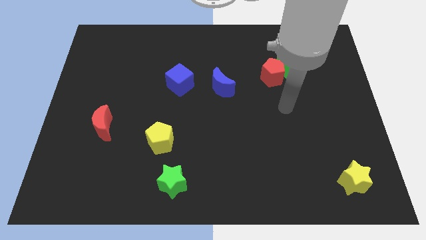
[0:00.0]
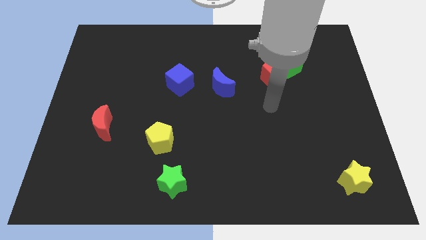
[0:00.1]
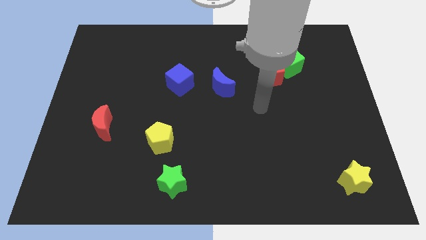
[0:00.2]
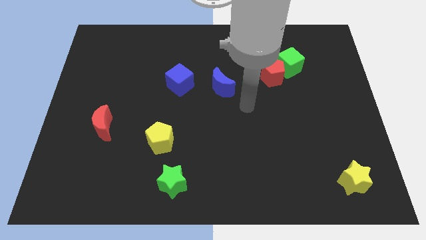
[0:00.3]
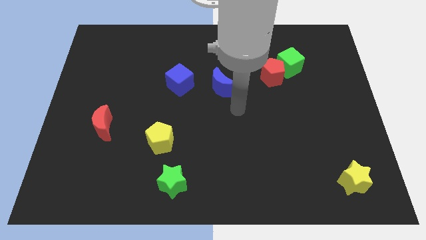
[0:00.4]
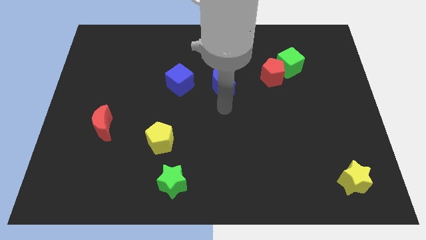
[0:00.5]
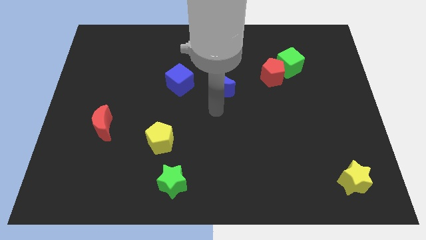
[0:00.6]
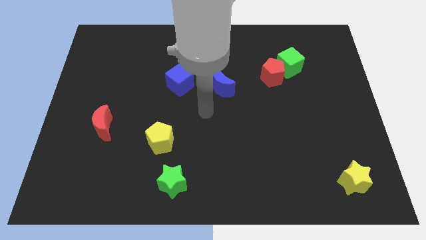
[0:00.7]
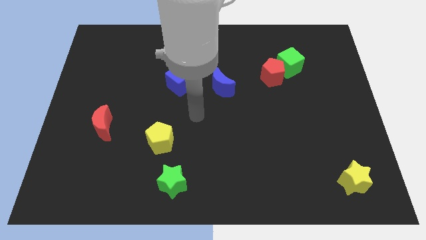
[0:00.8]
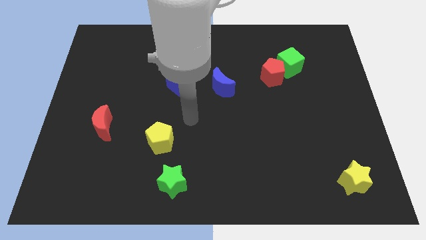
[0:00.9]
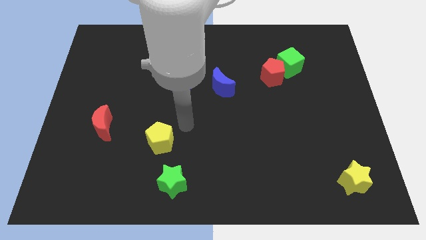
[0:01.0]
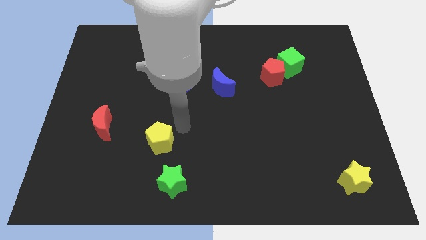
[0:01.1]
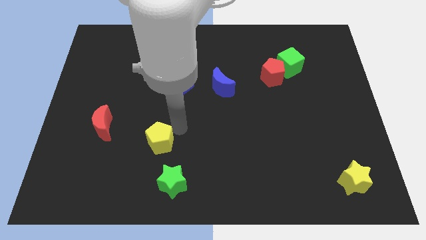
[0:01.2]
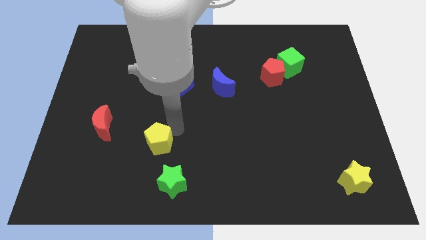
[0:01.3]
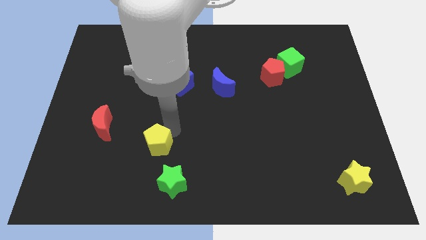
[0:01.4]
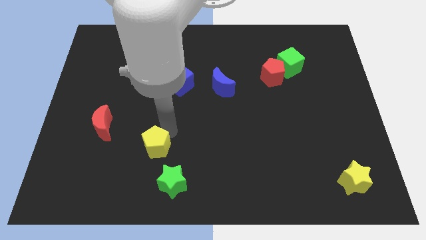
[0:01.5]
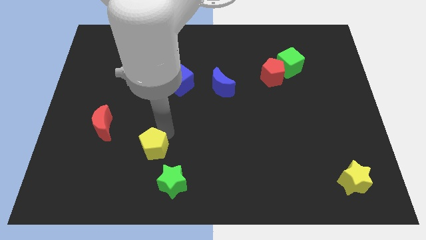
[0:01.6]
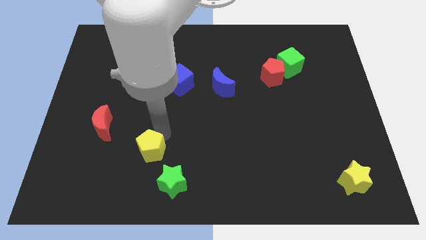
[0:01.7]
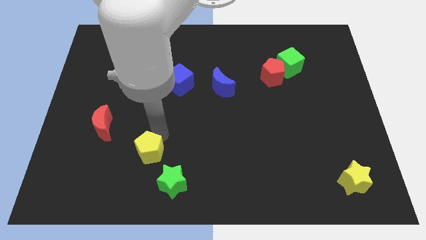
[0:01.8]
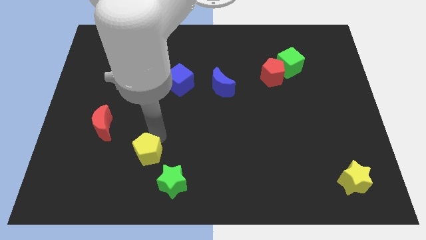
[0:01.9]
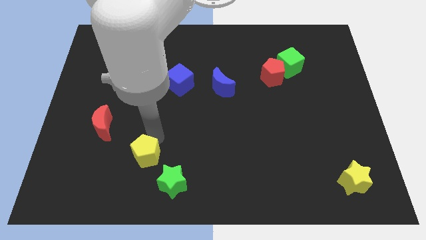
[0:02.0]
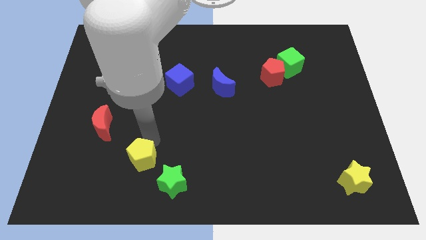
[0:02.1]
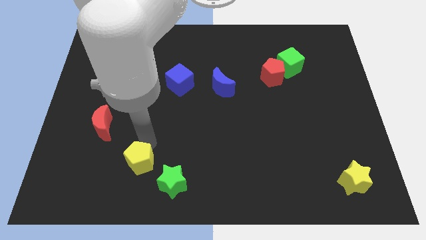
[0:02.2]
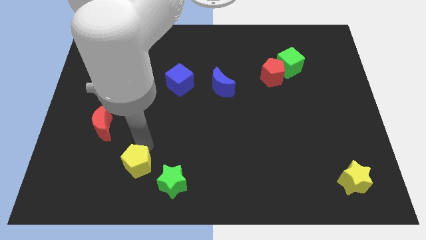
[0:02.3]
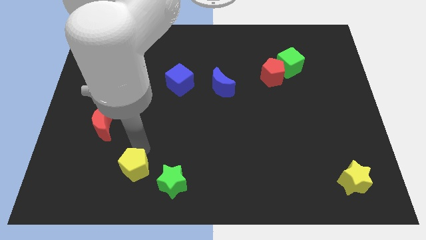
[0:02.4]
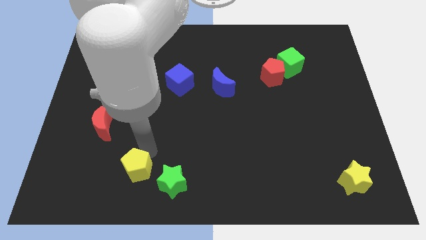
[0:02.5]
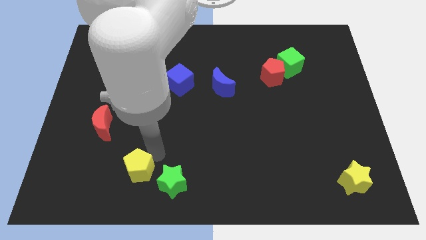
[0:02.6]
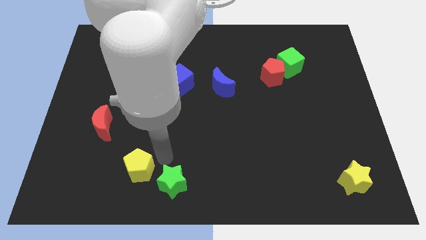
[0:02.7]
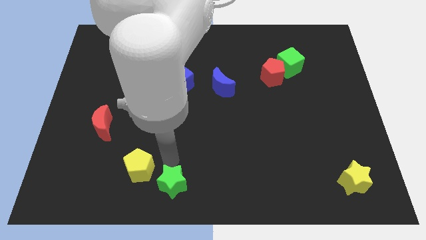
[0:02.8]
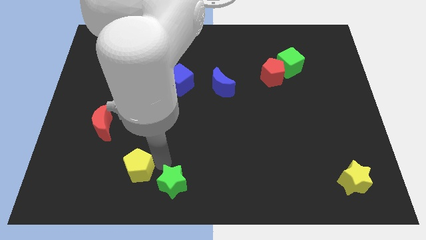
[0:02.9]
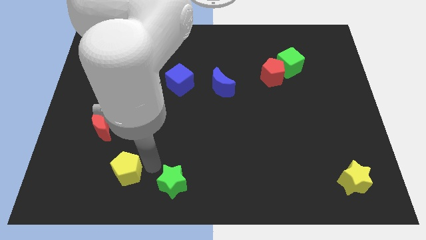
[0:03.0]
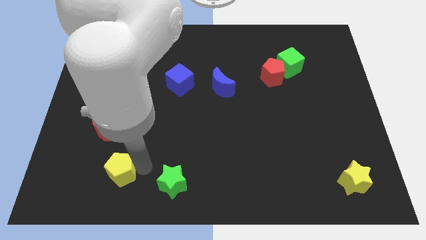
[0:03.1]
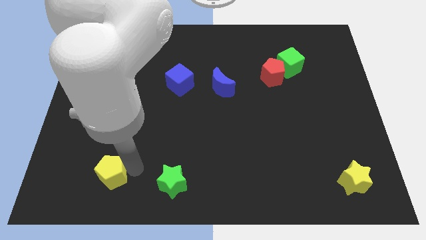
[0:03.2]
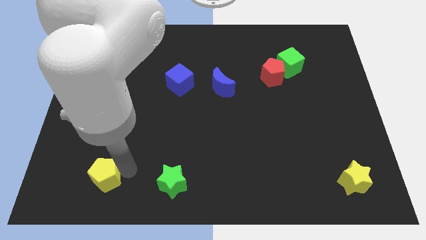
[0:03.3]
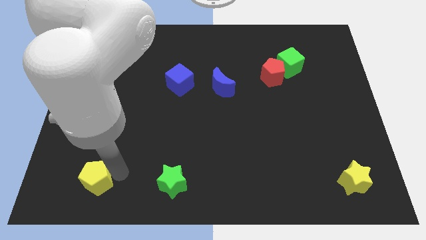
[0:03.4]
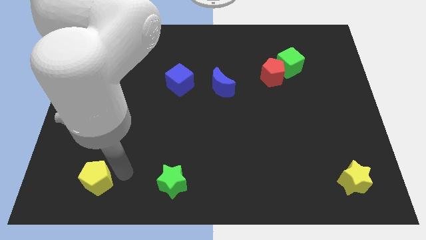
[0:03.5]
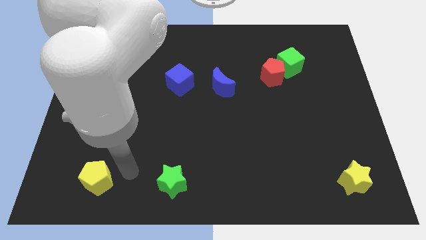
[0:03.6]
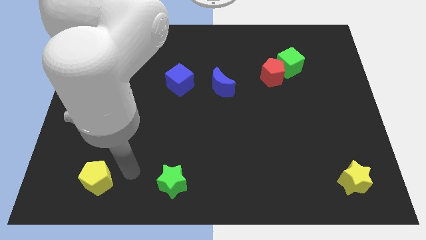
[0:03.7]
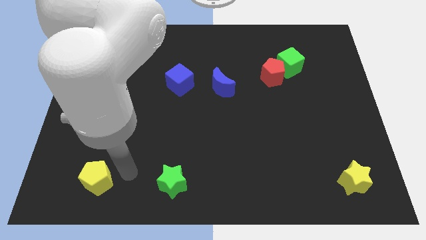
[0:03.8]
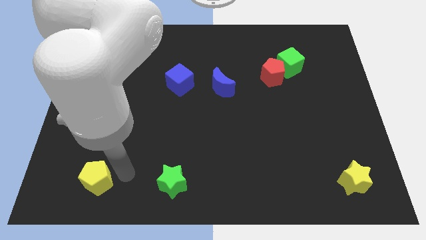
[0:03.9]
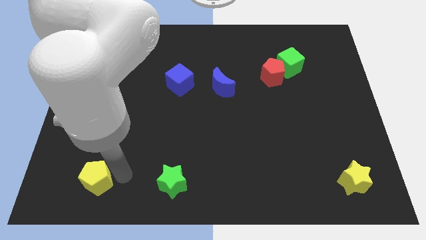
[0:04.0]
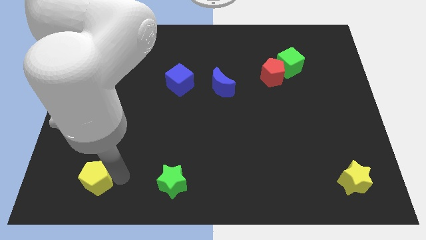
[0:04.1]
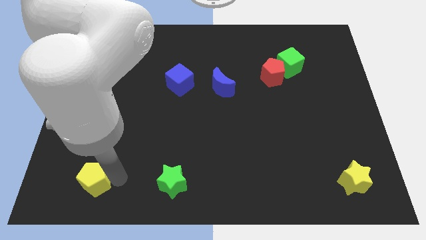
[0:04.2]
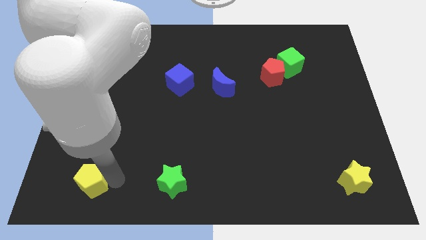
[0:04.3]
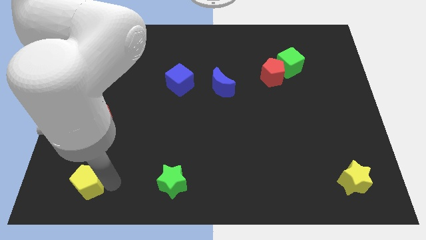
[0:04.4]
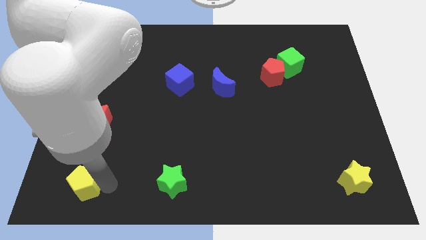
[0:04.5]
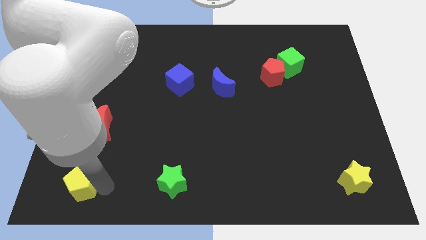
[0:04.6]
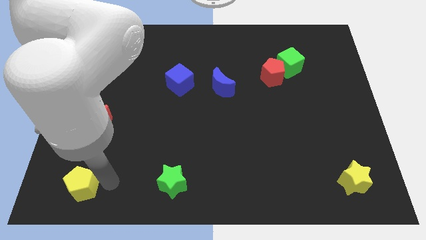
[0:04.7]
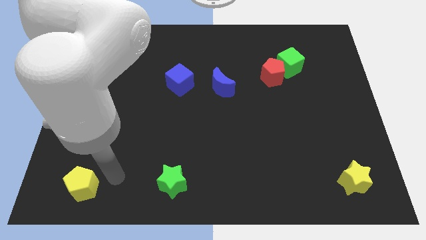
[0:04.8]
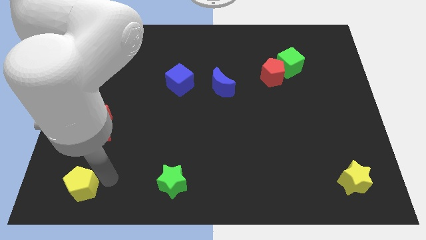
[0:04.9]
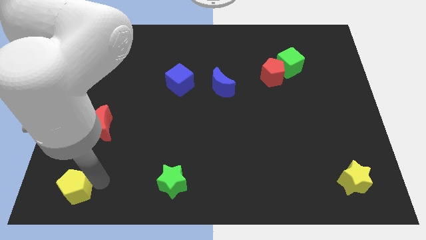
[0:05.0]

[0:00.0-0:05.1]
push the yellow pentagon to the bottom left

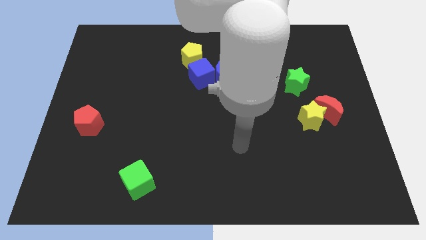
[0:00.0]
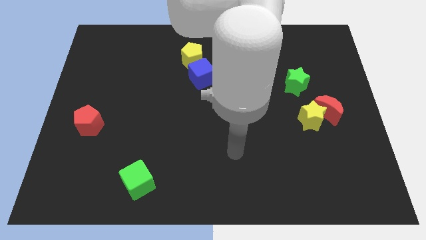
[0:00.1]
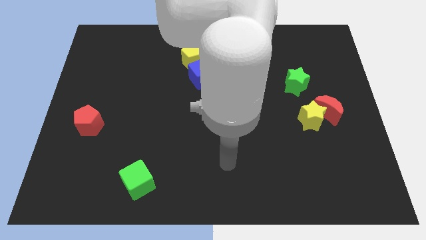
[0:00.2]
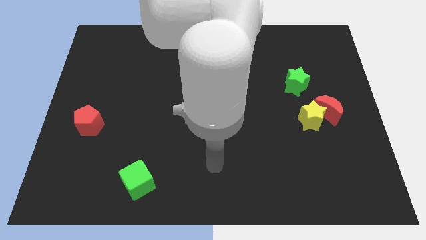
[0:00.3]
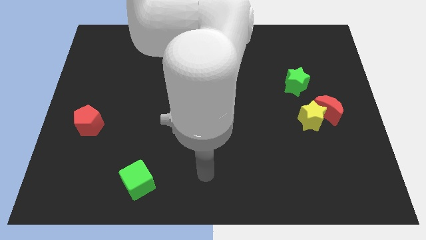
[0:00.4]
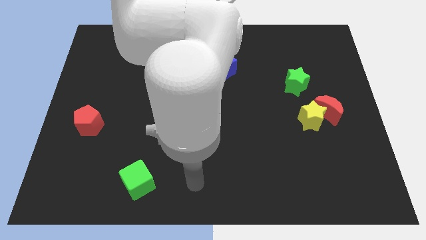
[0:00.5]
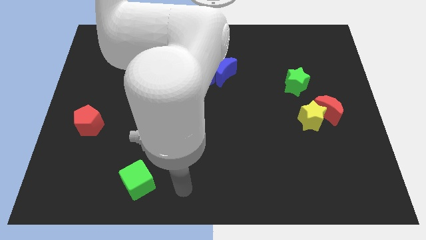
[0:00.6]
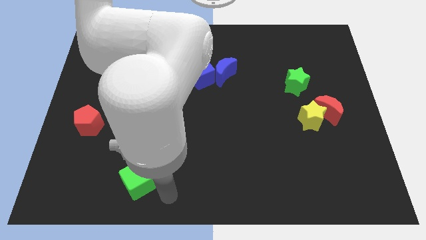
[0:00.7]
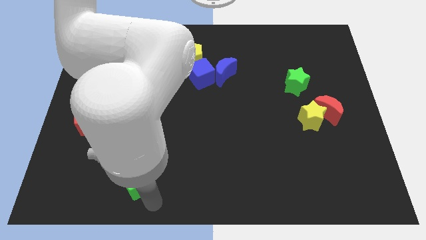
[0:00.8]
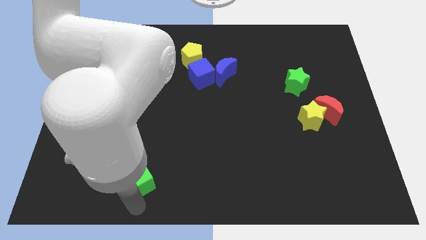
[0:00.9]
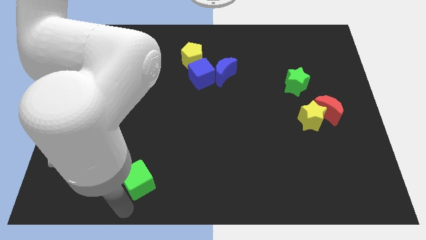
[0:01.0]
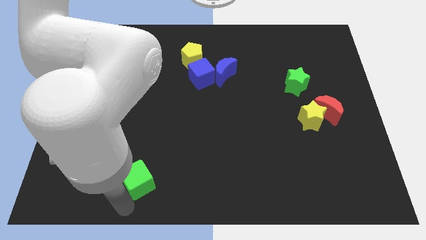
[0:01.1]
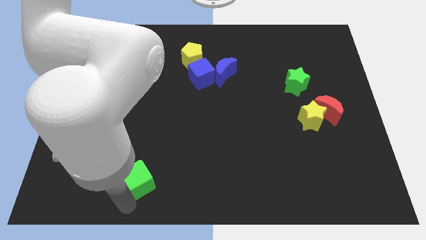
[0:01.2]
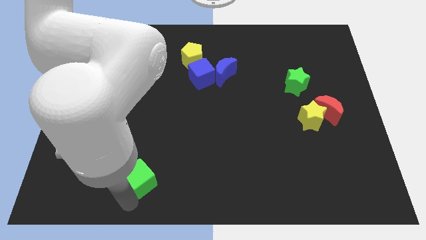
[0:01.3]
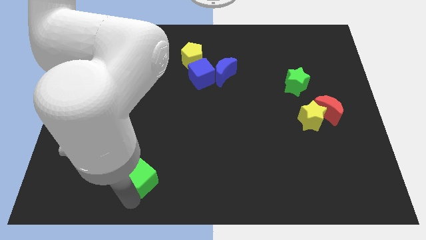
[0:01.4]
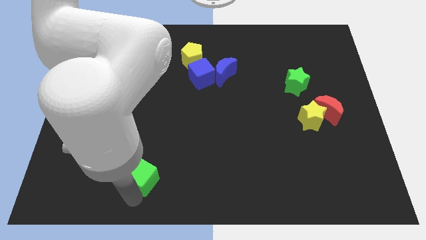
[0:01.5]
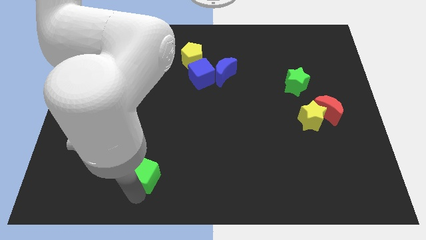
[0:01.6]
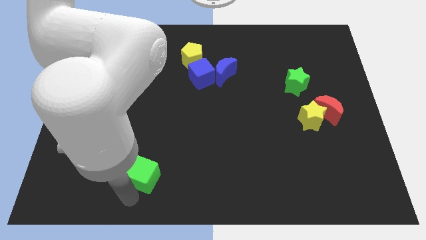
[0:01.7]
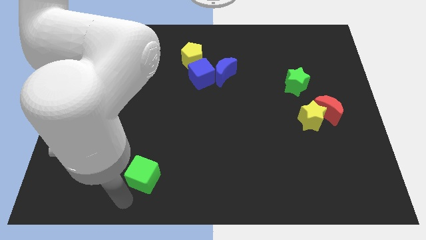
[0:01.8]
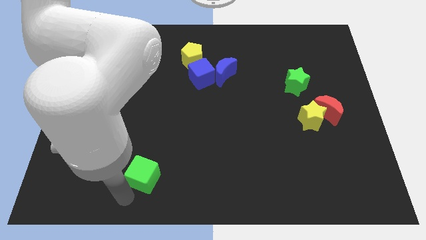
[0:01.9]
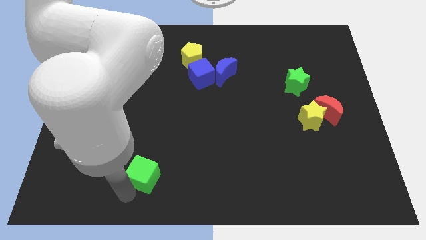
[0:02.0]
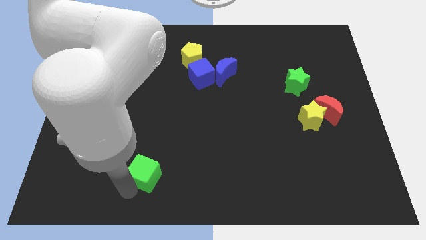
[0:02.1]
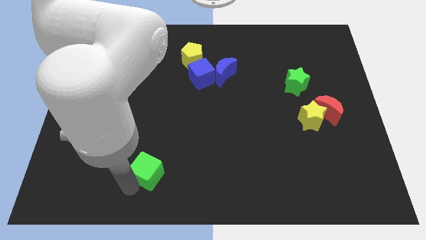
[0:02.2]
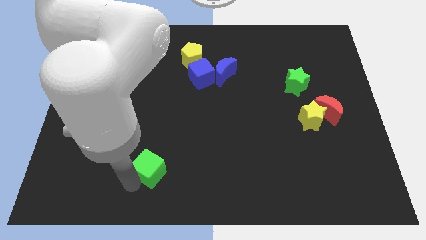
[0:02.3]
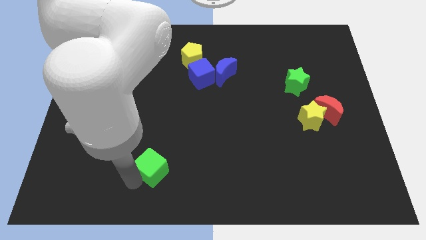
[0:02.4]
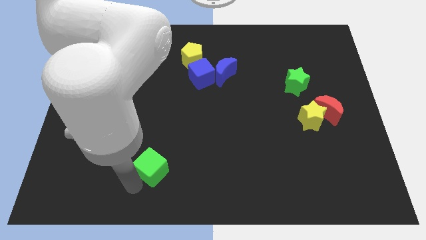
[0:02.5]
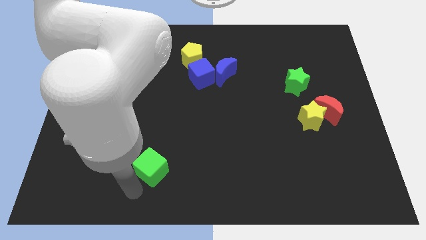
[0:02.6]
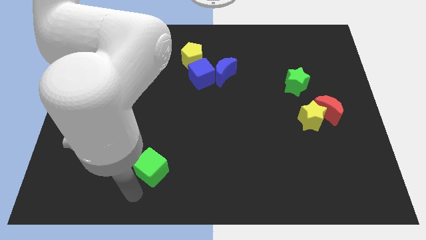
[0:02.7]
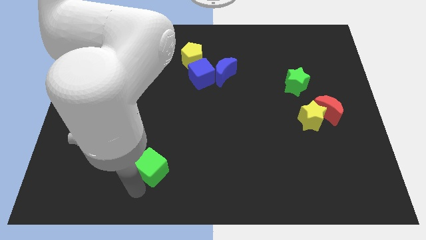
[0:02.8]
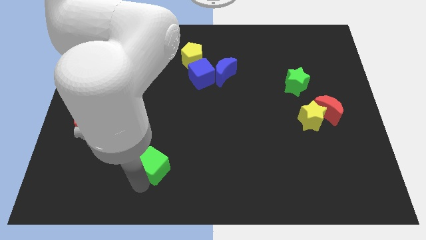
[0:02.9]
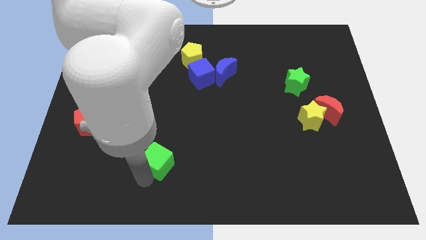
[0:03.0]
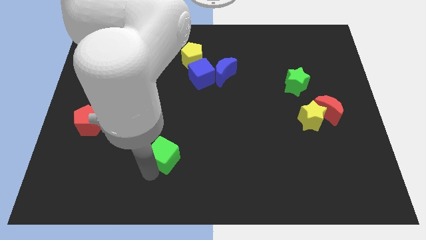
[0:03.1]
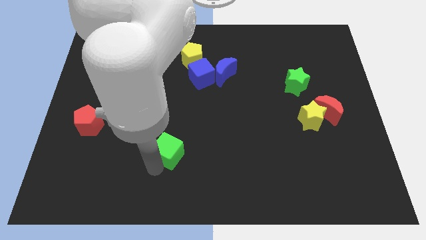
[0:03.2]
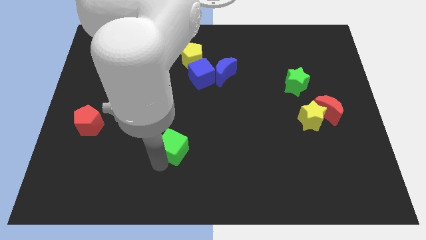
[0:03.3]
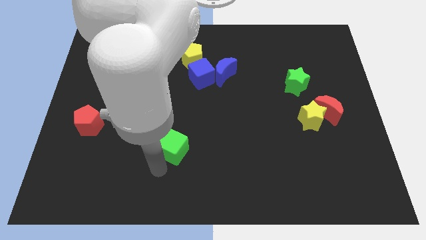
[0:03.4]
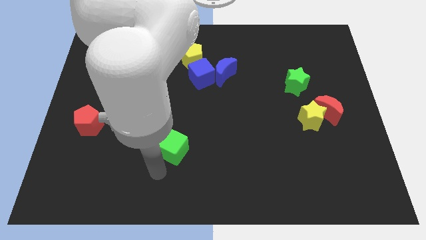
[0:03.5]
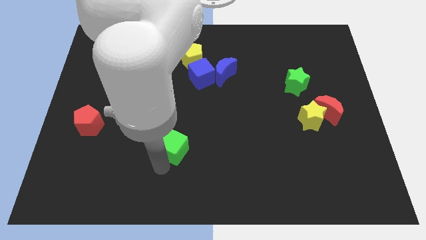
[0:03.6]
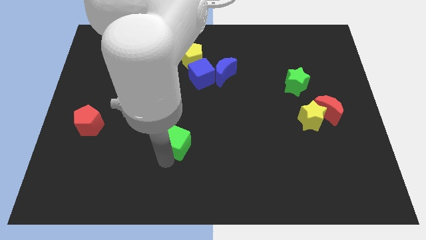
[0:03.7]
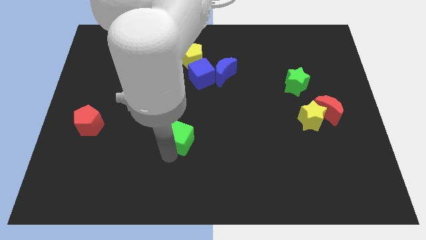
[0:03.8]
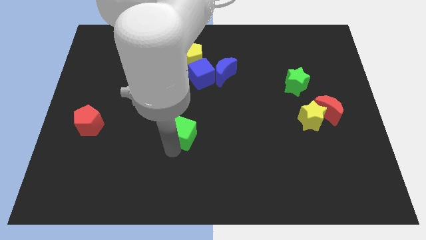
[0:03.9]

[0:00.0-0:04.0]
push the green cube to the center of the board
